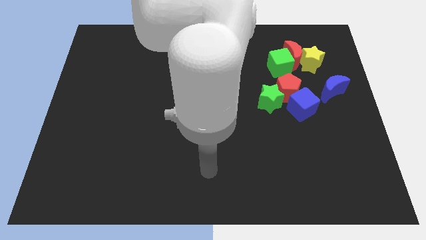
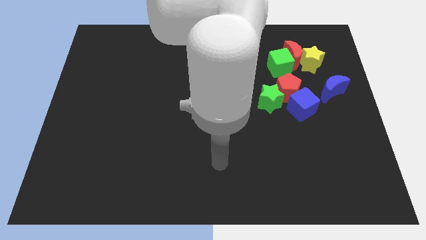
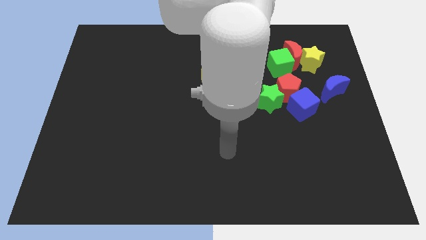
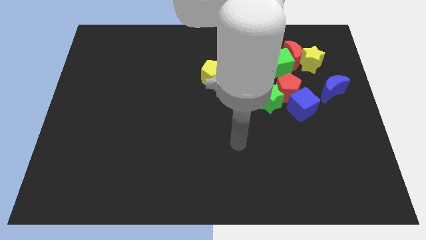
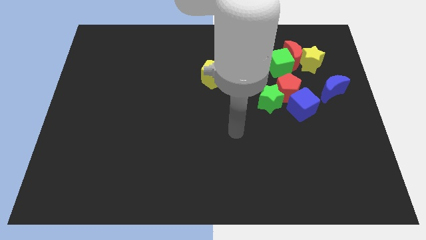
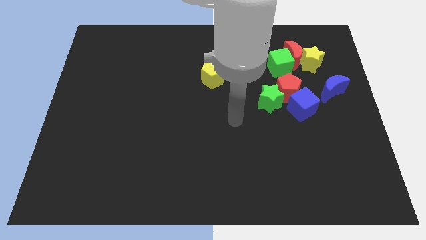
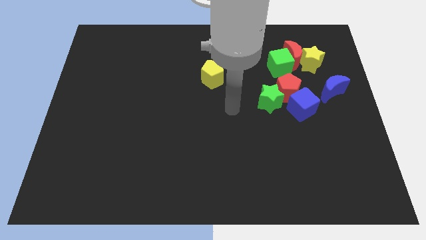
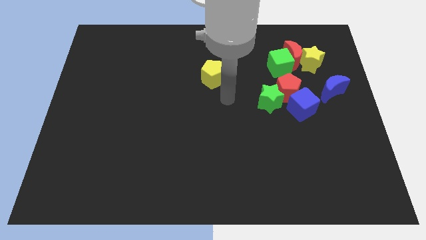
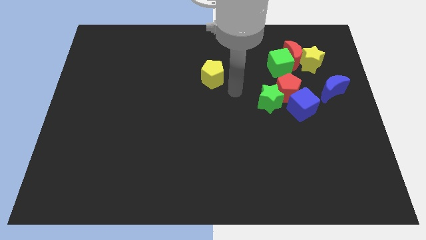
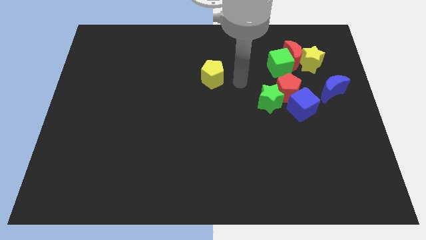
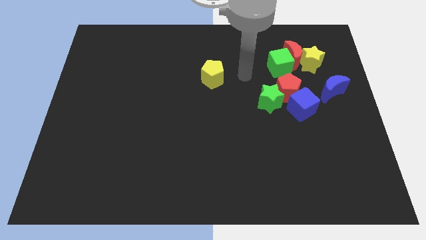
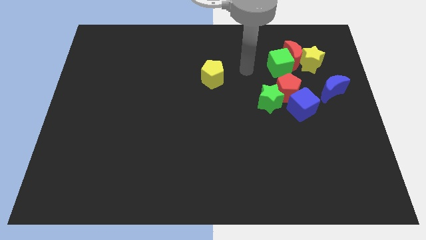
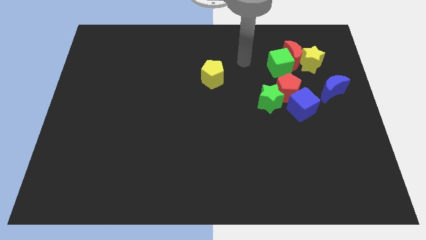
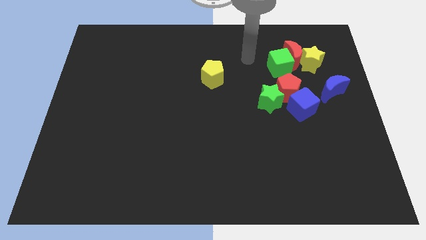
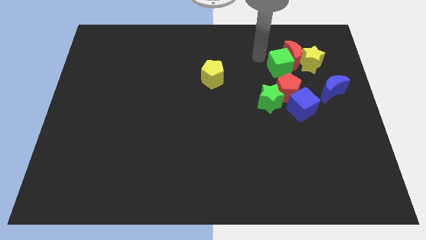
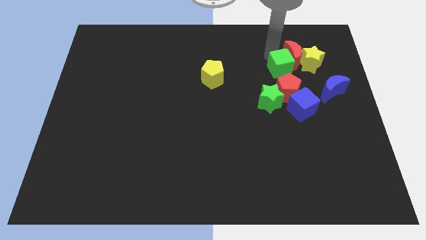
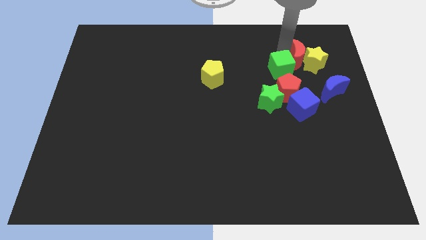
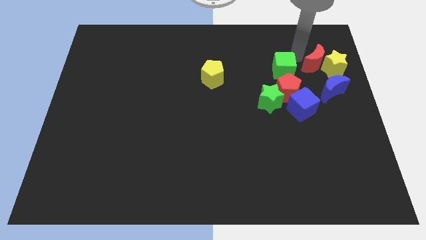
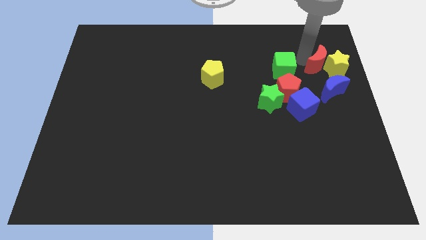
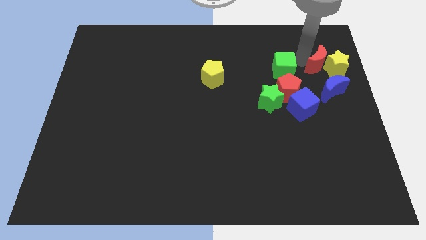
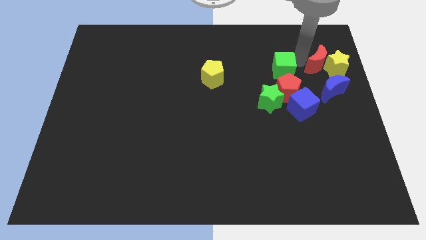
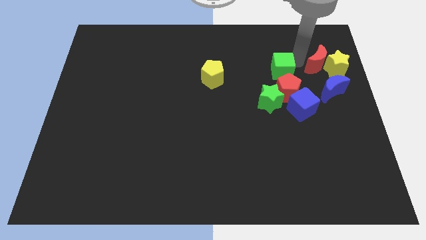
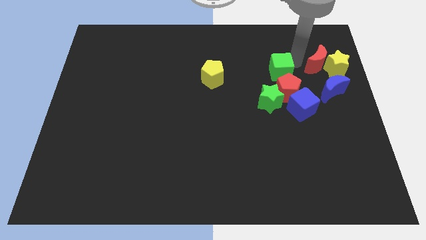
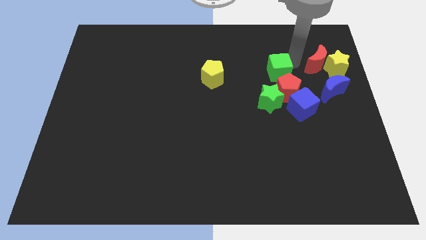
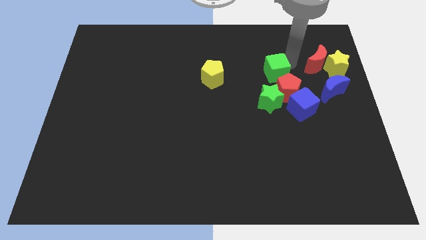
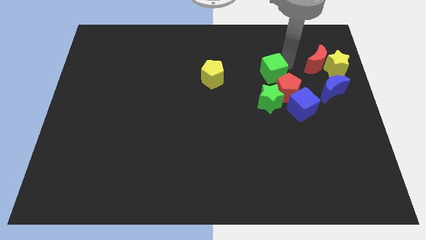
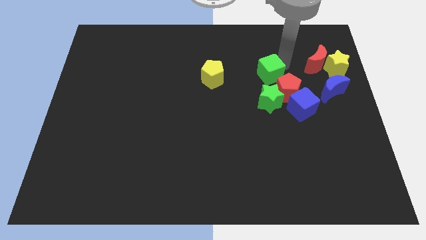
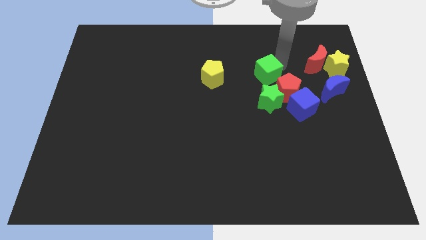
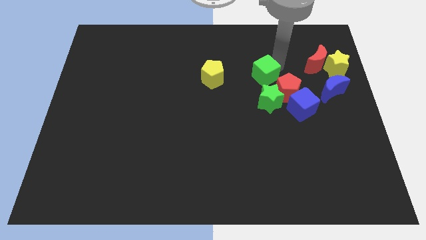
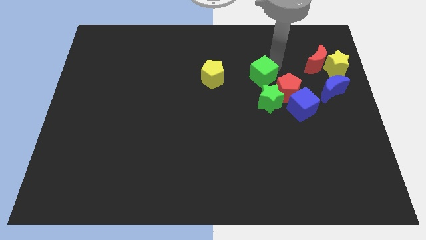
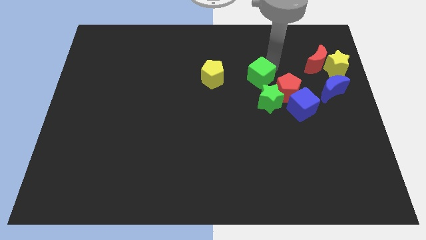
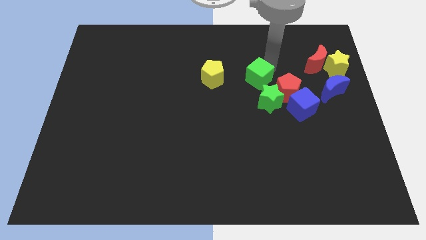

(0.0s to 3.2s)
slightly move the green cube down and to the left

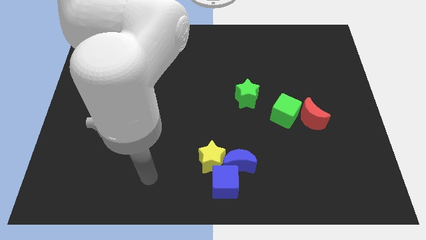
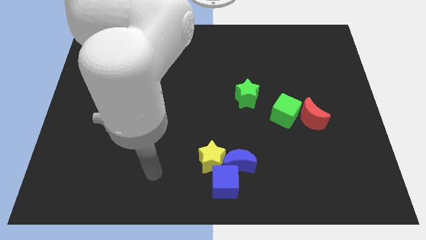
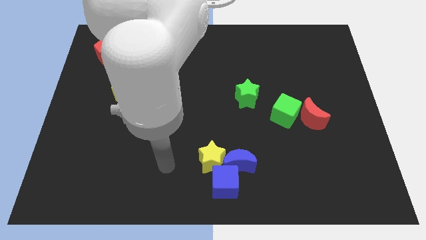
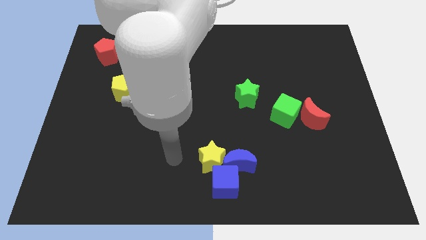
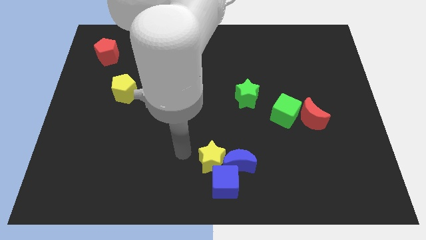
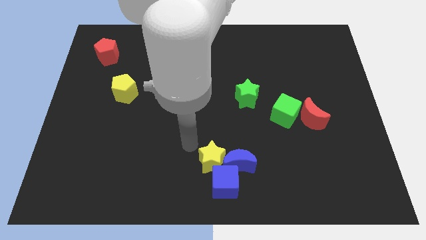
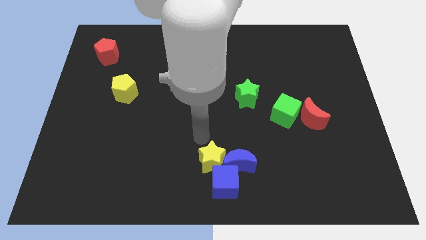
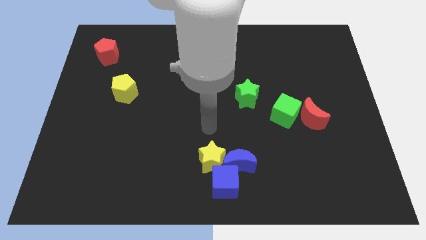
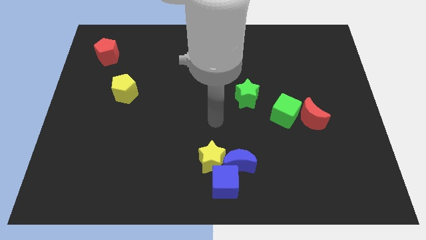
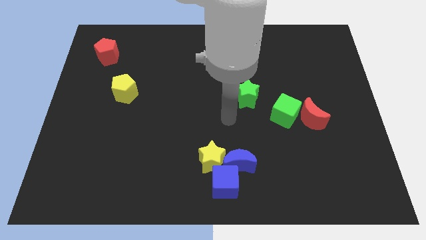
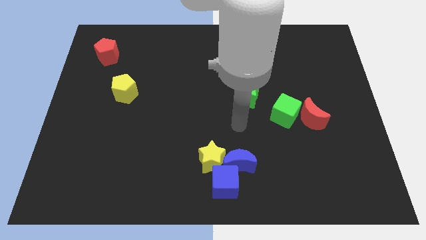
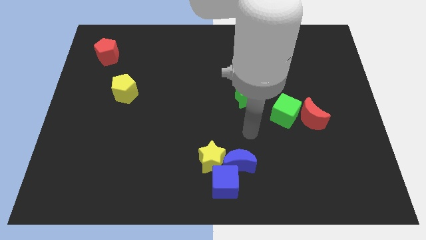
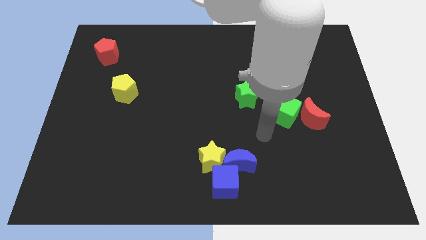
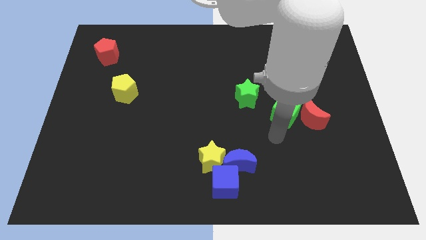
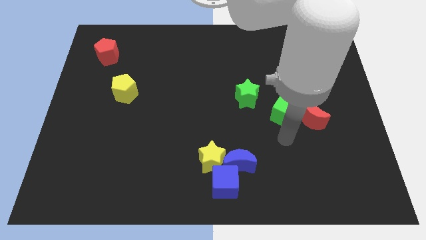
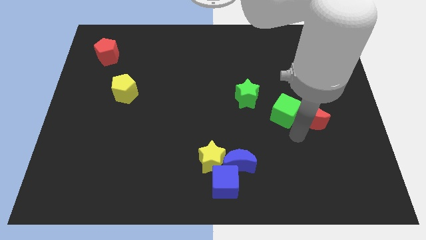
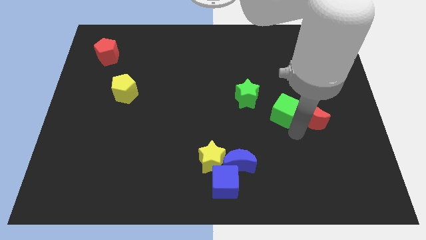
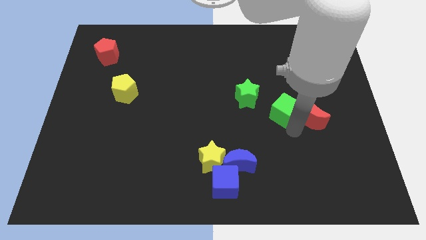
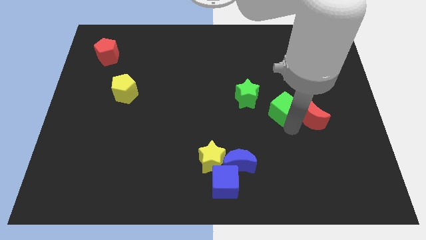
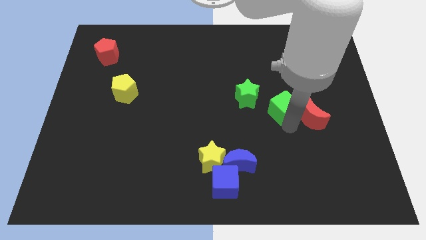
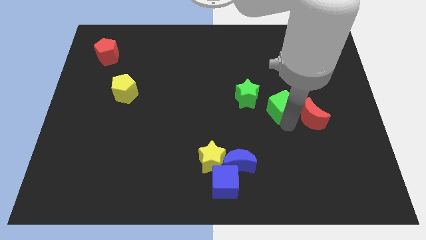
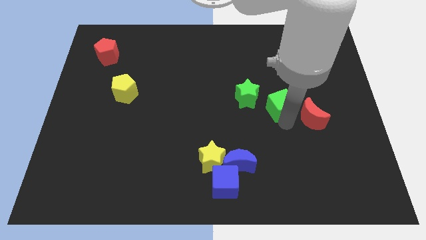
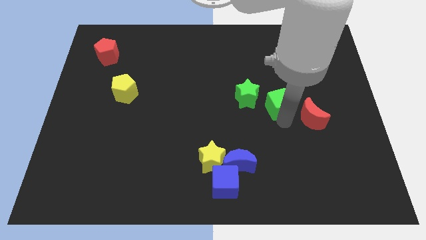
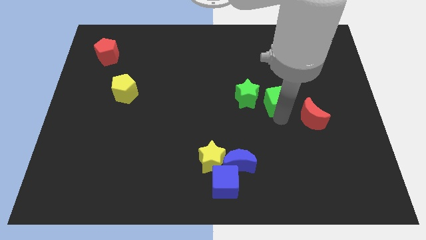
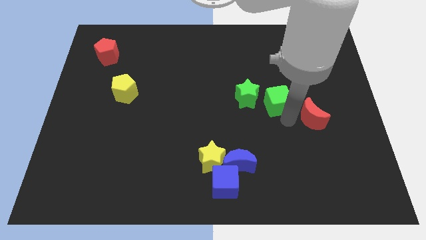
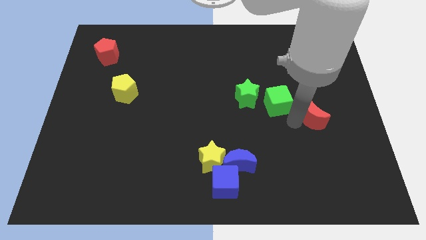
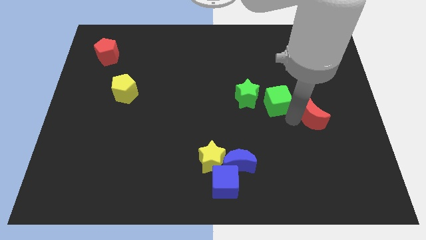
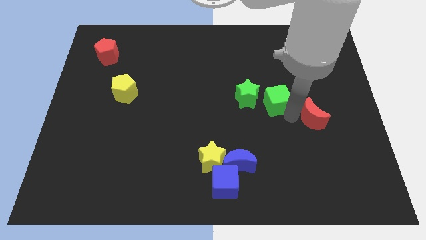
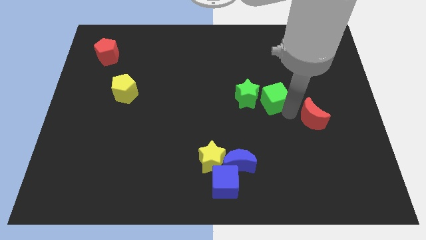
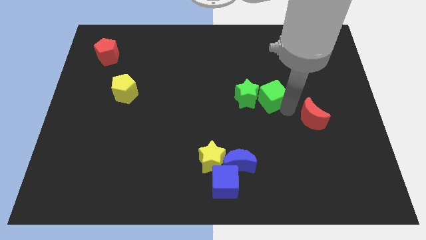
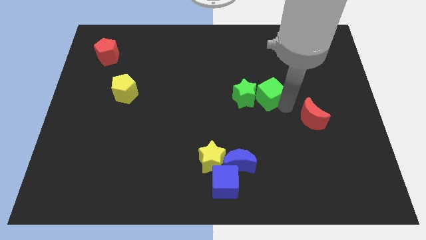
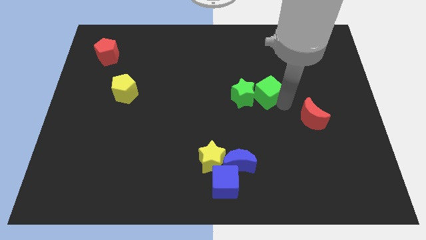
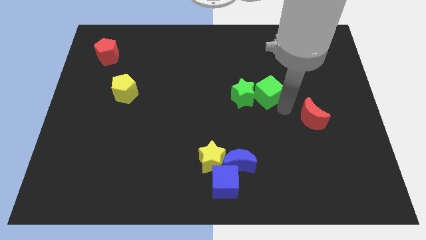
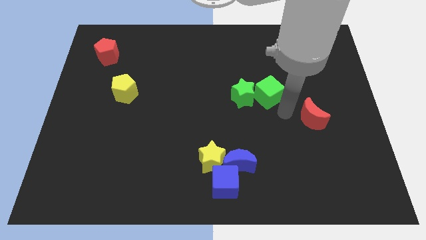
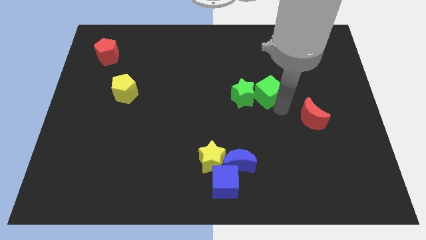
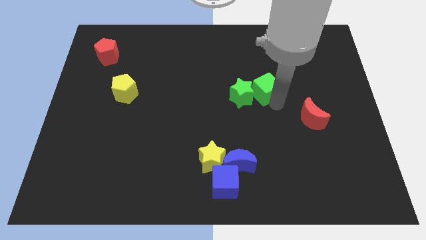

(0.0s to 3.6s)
move the green cube up and then to the left a little bit

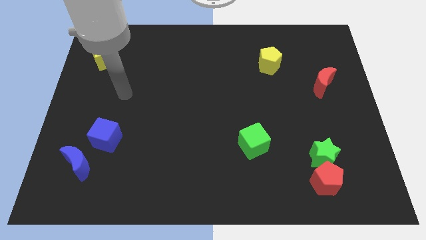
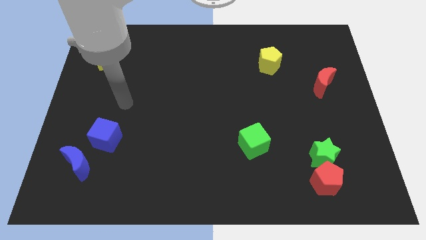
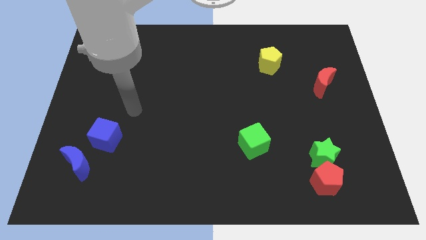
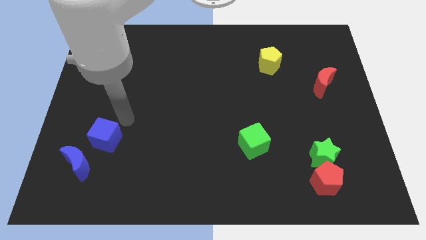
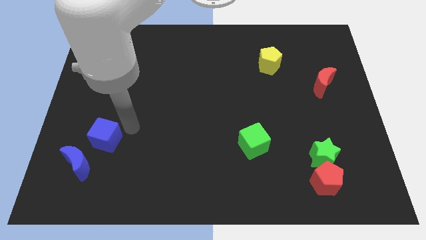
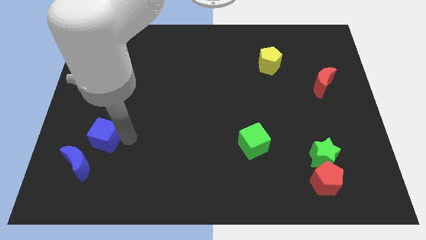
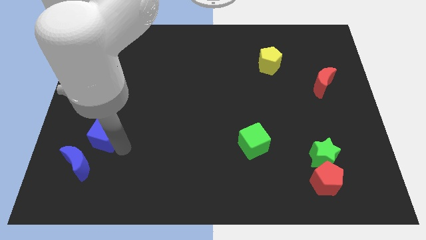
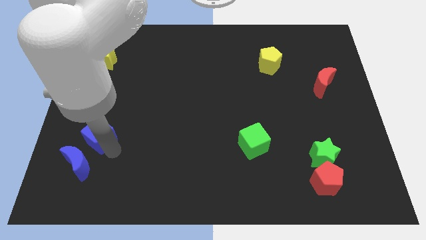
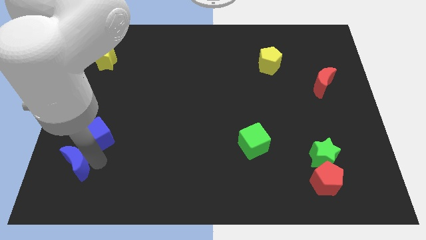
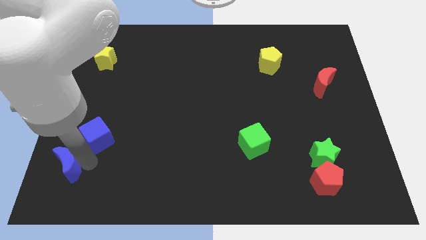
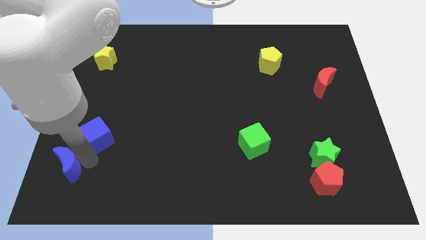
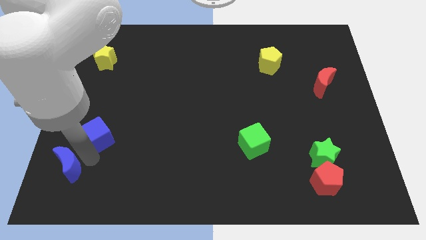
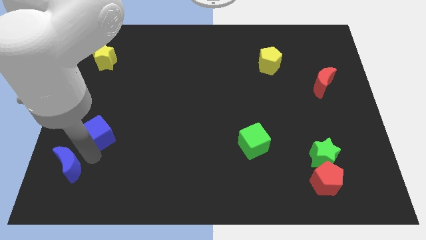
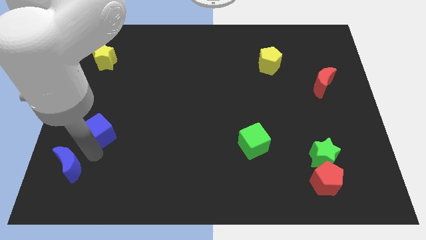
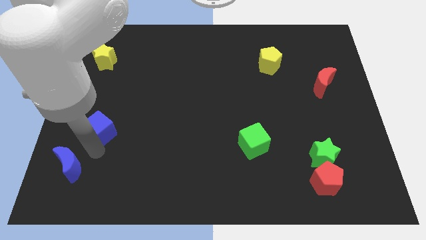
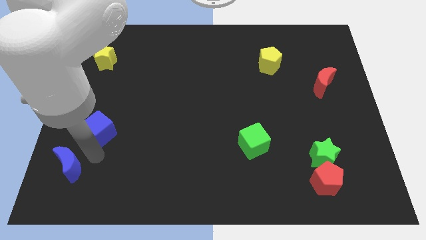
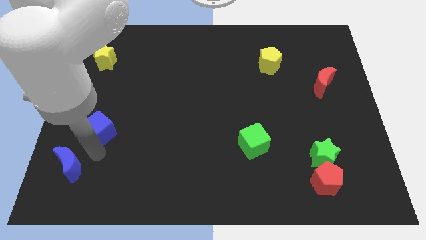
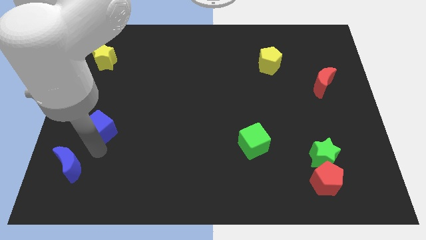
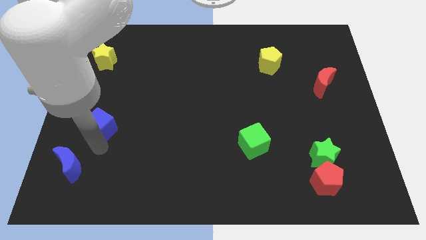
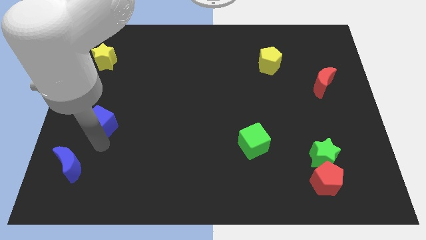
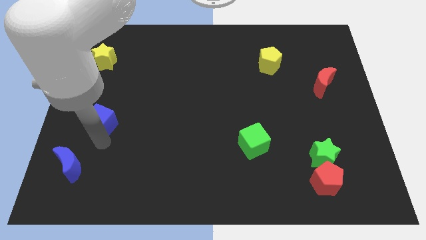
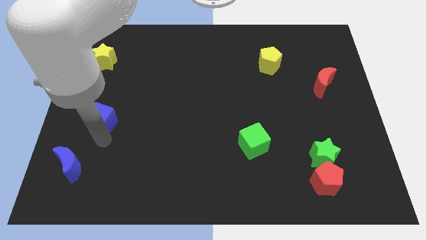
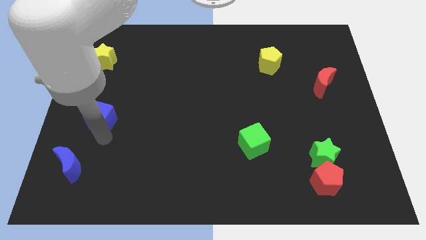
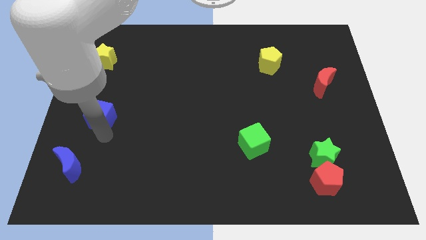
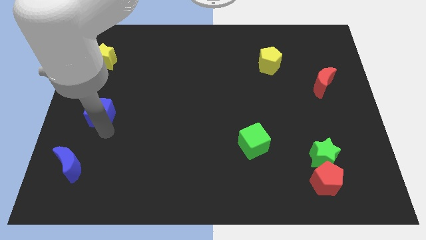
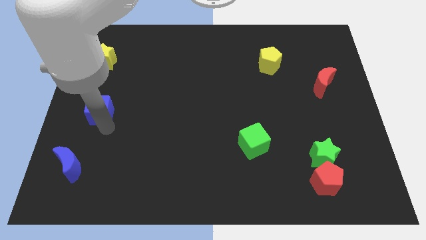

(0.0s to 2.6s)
push the blue cube somewhat up
